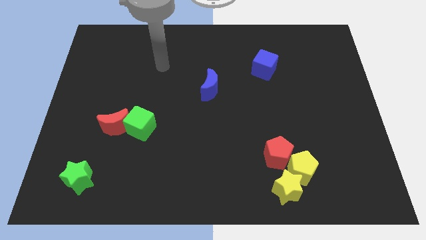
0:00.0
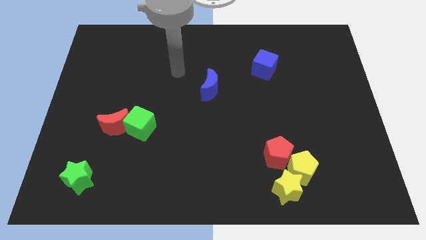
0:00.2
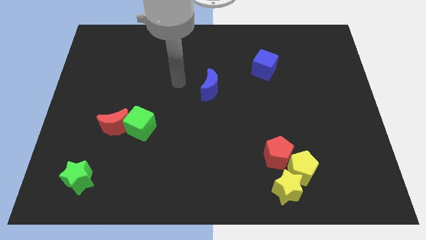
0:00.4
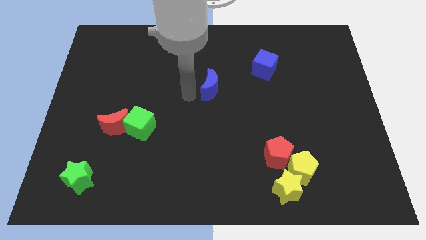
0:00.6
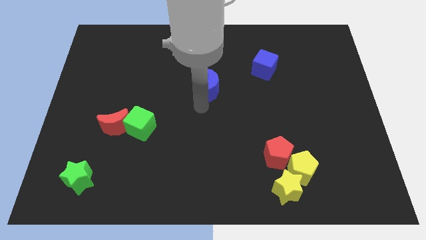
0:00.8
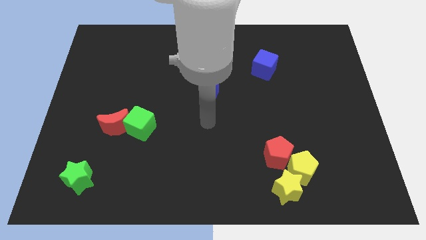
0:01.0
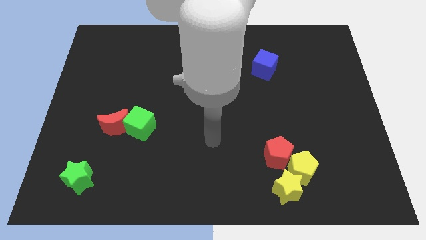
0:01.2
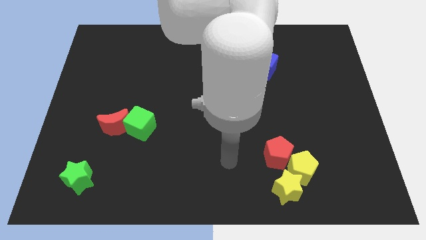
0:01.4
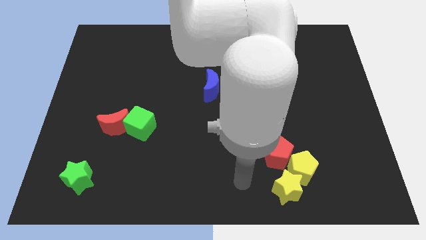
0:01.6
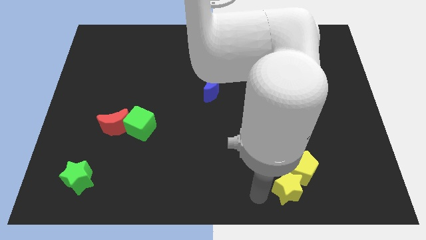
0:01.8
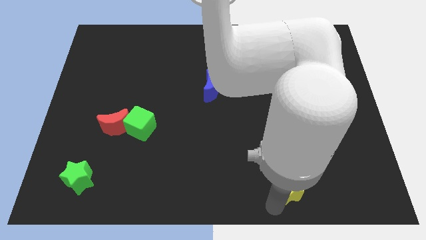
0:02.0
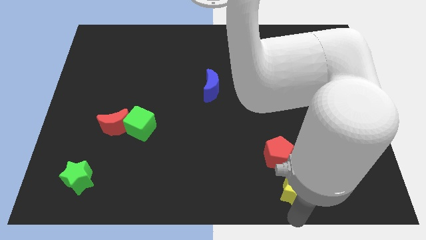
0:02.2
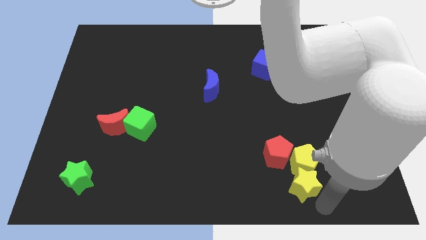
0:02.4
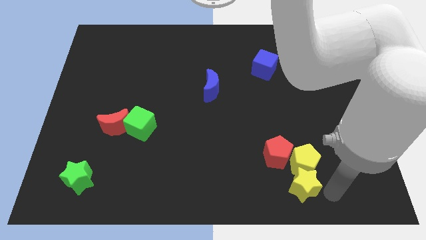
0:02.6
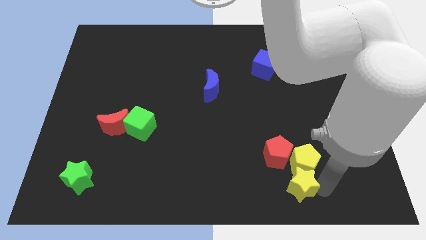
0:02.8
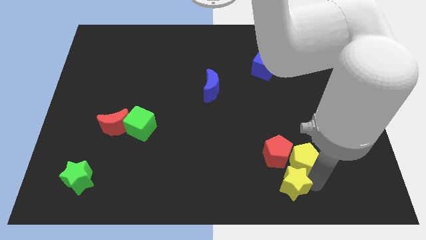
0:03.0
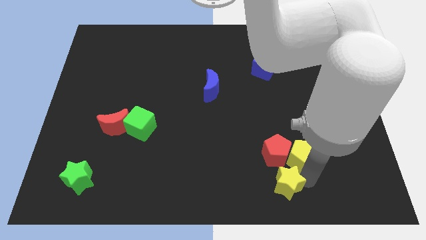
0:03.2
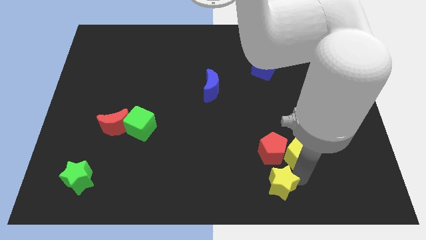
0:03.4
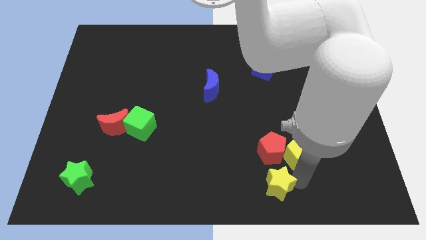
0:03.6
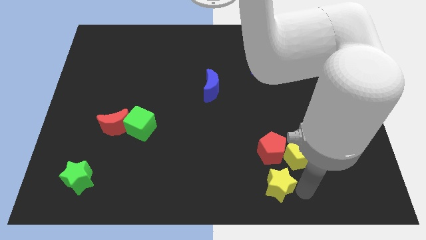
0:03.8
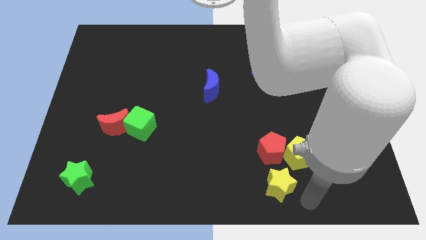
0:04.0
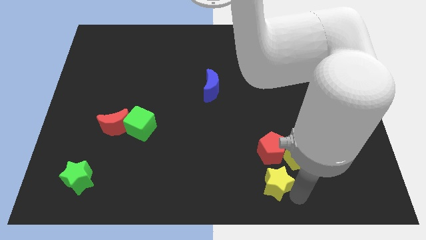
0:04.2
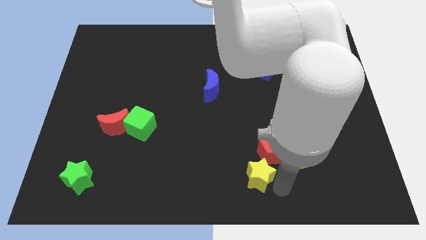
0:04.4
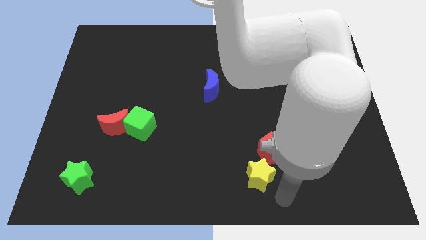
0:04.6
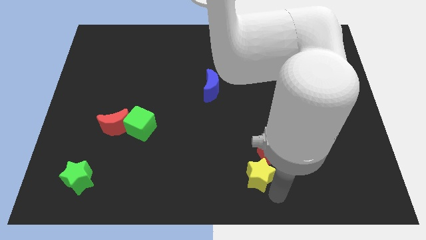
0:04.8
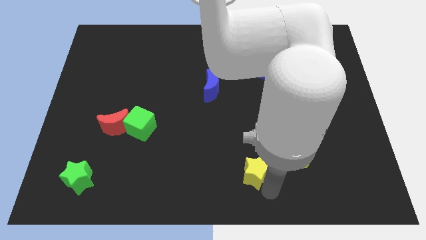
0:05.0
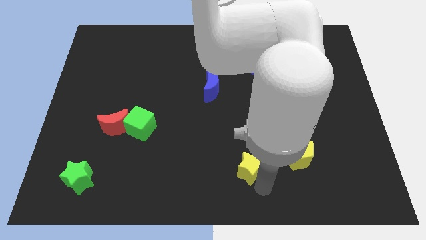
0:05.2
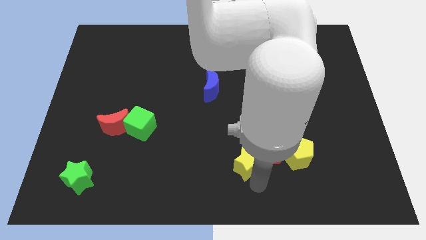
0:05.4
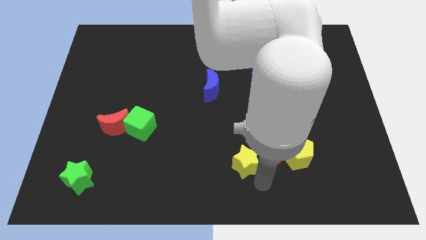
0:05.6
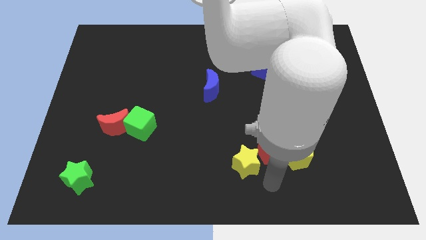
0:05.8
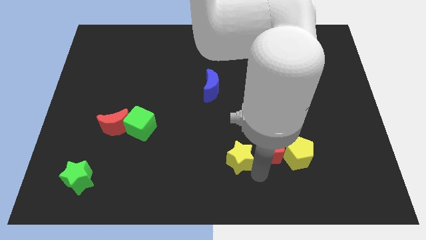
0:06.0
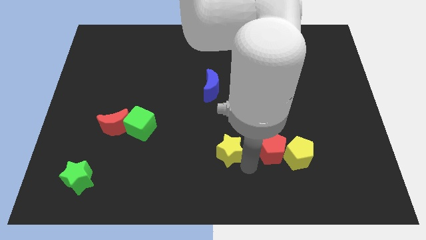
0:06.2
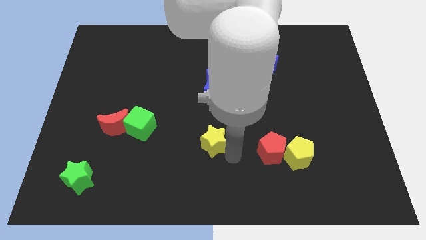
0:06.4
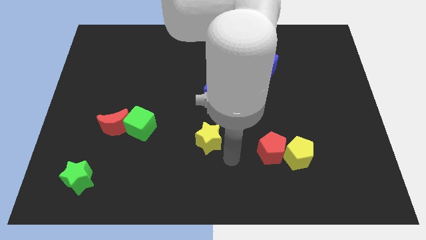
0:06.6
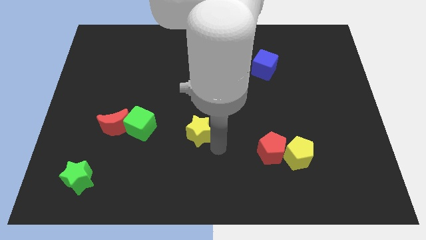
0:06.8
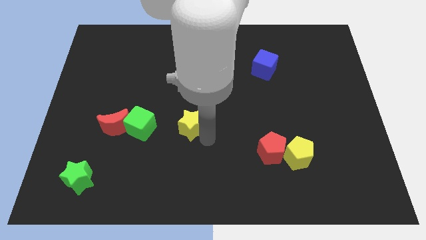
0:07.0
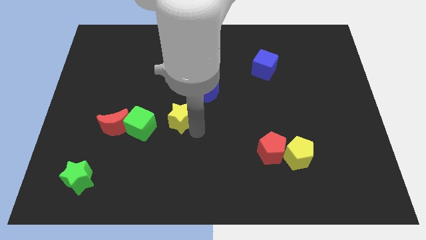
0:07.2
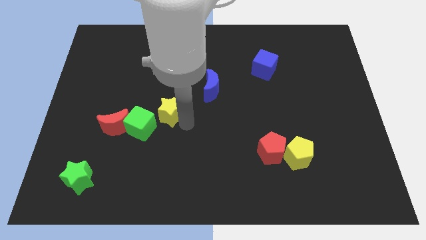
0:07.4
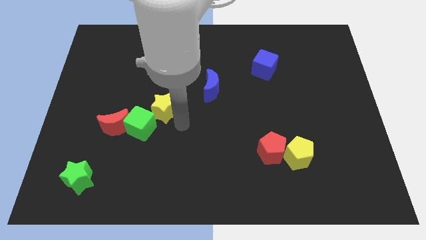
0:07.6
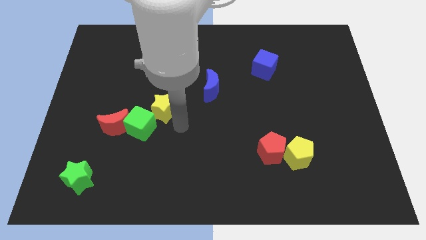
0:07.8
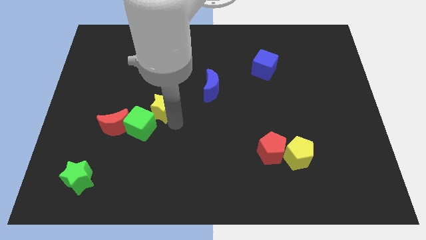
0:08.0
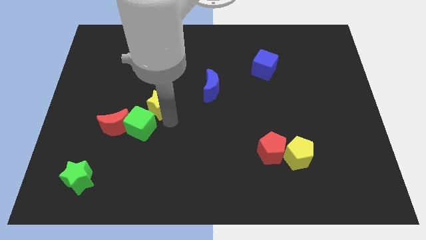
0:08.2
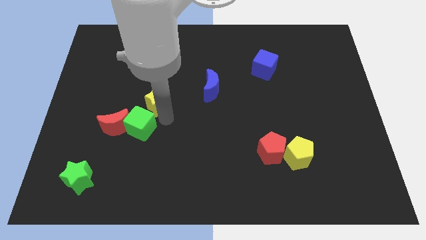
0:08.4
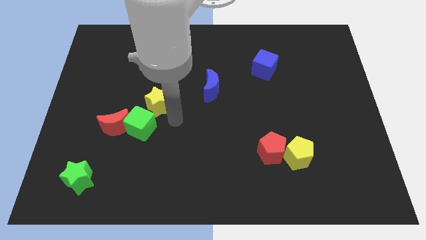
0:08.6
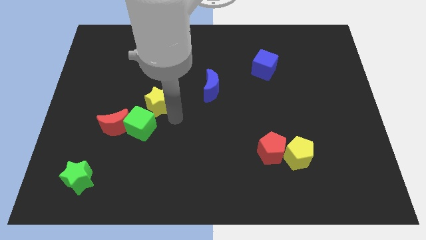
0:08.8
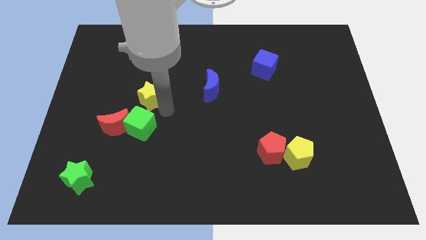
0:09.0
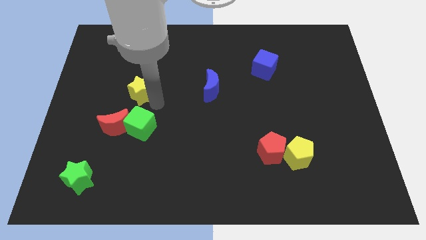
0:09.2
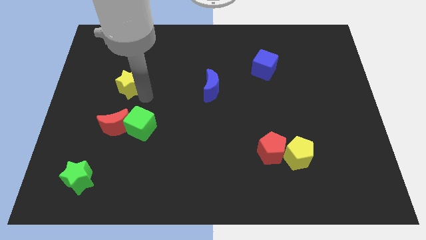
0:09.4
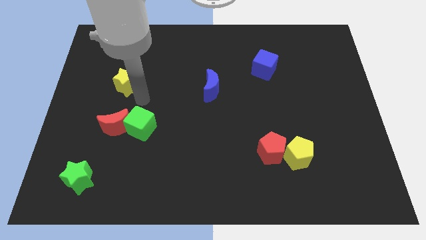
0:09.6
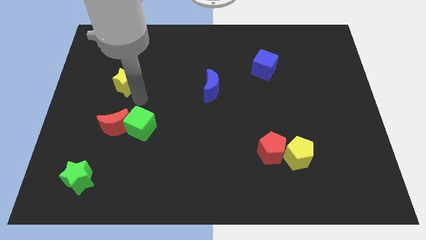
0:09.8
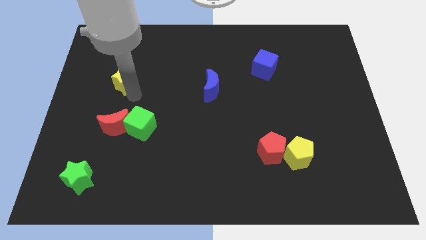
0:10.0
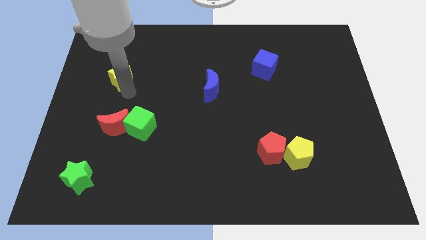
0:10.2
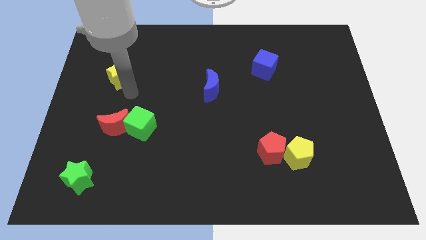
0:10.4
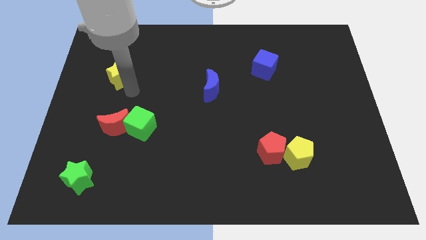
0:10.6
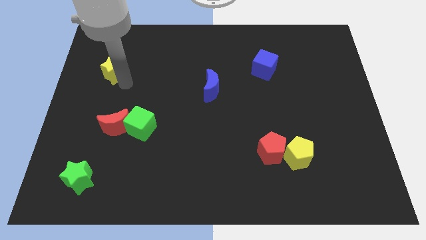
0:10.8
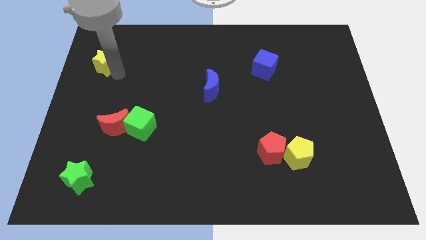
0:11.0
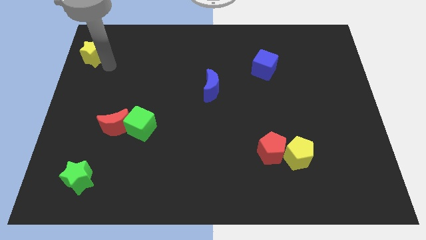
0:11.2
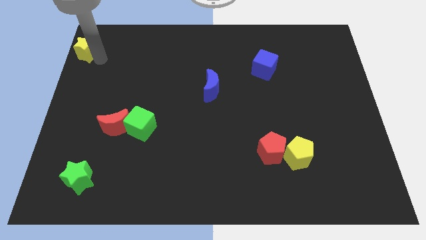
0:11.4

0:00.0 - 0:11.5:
push the yellow star to the top left
